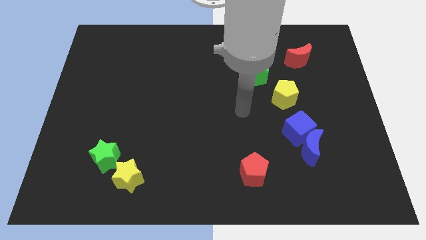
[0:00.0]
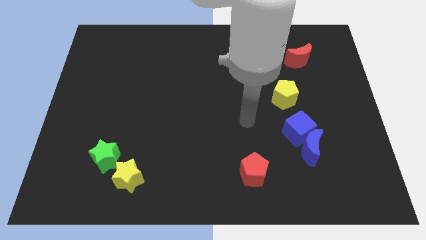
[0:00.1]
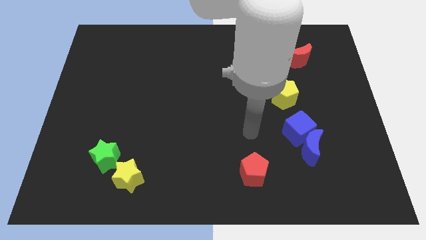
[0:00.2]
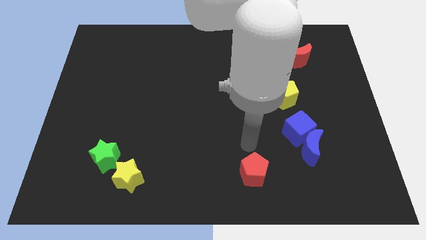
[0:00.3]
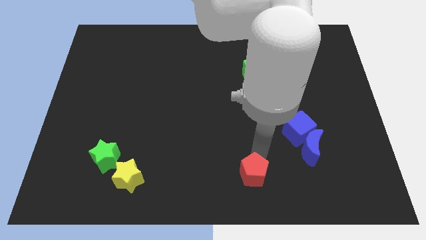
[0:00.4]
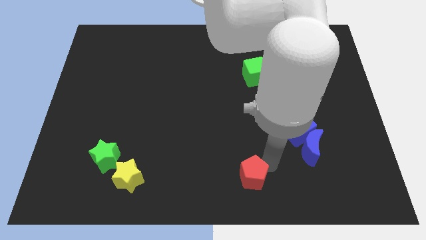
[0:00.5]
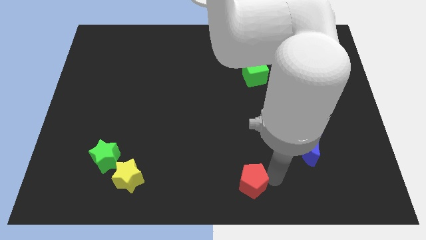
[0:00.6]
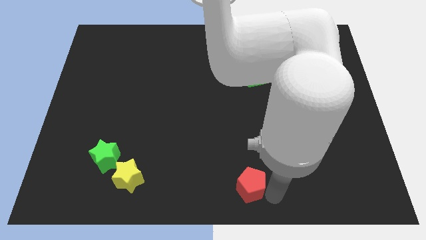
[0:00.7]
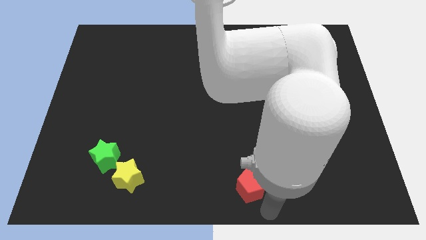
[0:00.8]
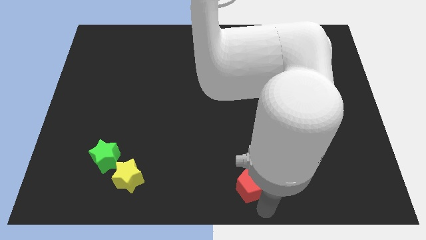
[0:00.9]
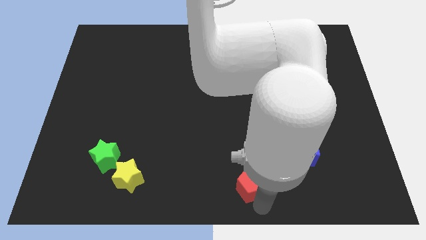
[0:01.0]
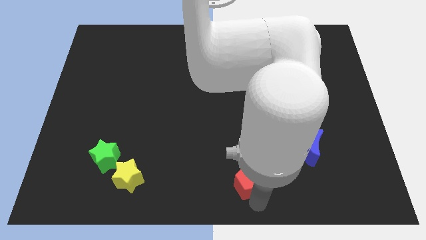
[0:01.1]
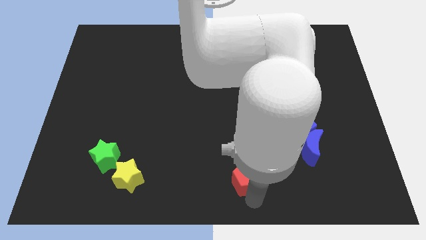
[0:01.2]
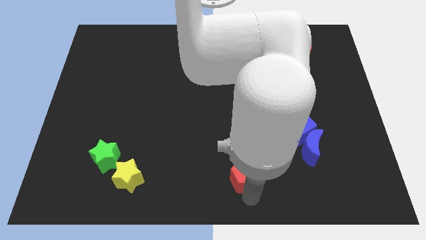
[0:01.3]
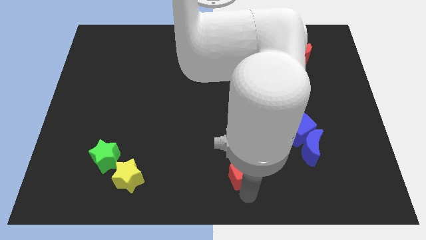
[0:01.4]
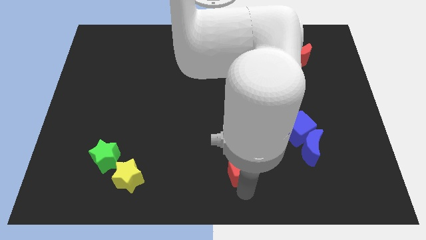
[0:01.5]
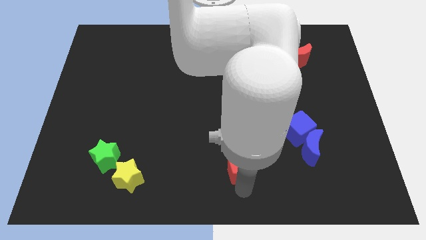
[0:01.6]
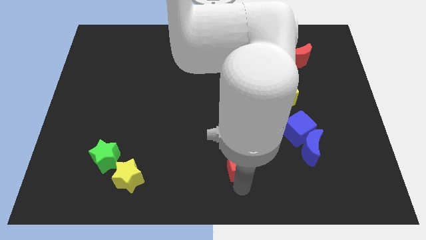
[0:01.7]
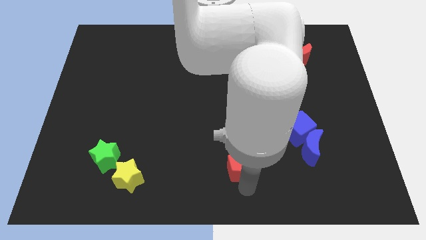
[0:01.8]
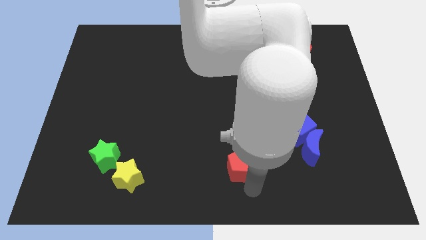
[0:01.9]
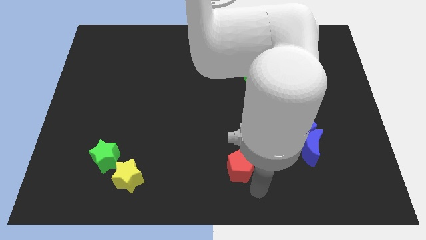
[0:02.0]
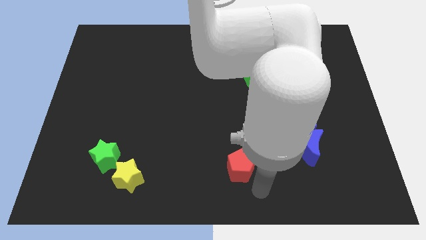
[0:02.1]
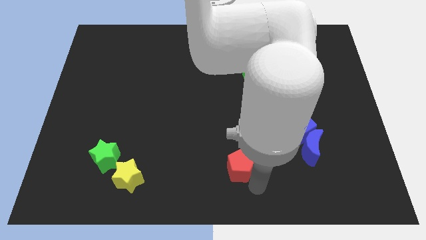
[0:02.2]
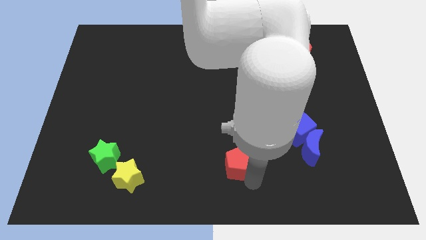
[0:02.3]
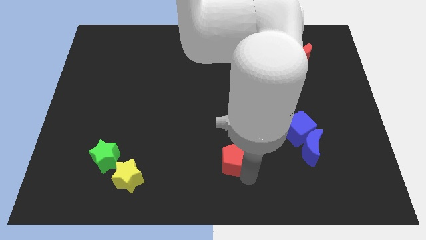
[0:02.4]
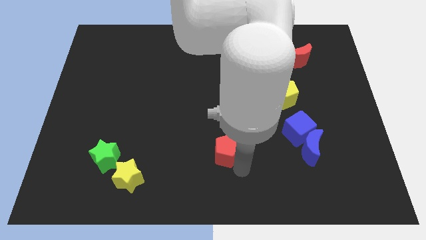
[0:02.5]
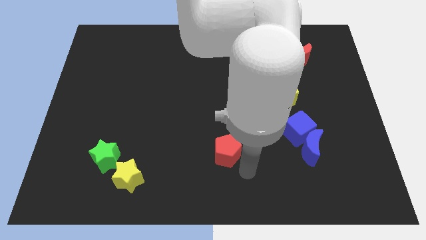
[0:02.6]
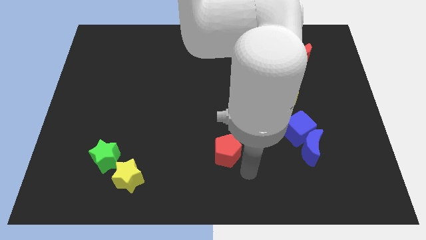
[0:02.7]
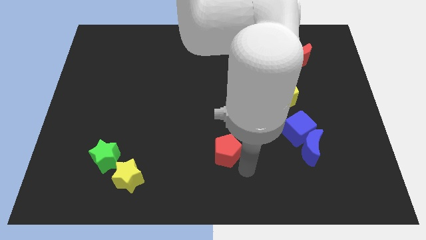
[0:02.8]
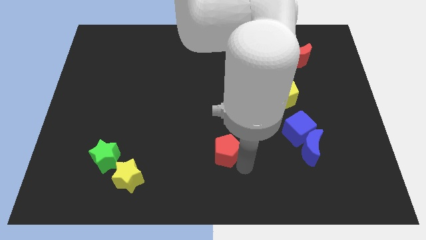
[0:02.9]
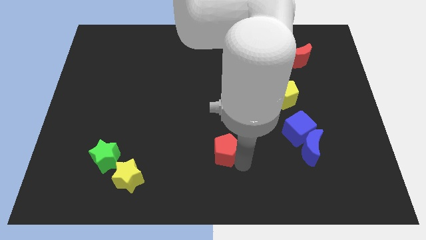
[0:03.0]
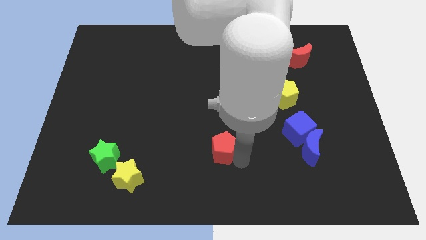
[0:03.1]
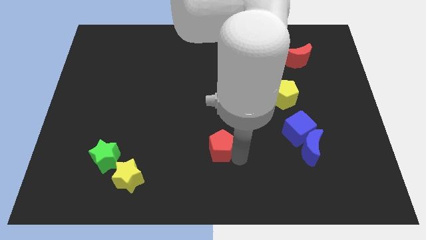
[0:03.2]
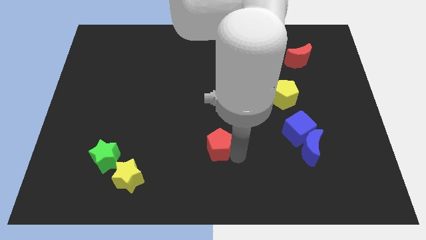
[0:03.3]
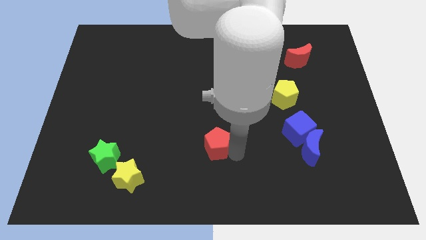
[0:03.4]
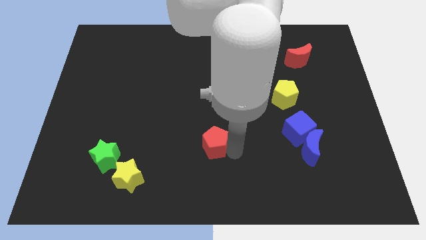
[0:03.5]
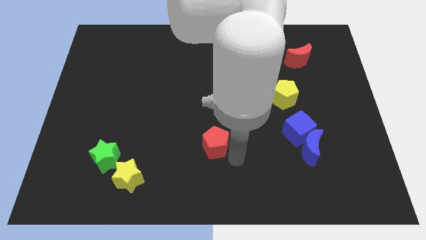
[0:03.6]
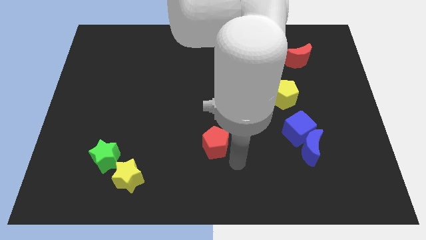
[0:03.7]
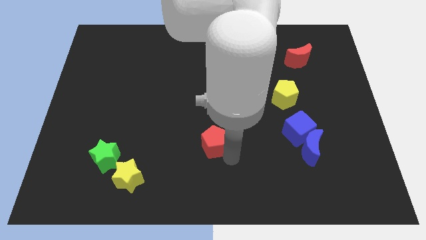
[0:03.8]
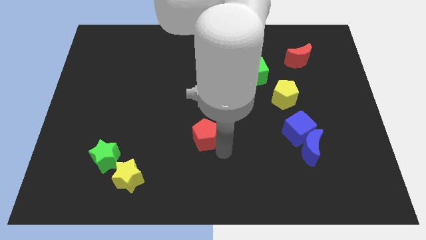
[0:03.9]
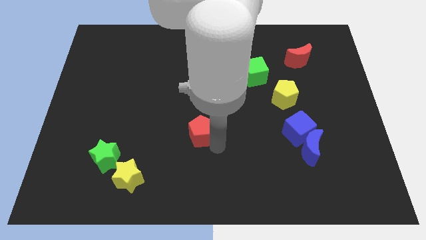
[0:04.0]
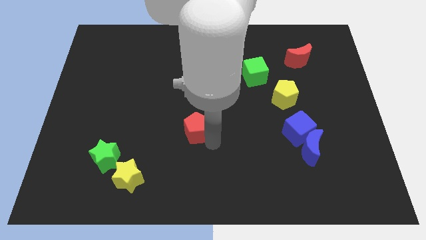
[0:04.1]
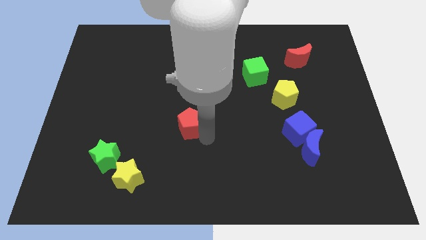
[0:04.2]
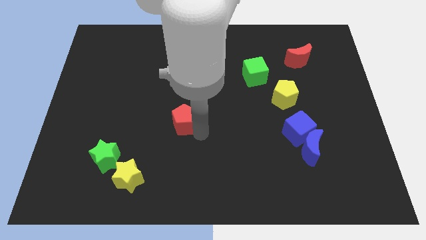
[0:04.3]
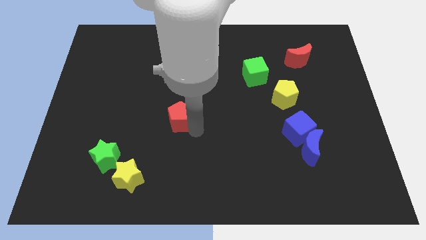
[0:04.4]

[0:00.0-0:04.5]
slide the red pentagon upwards and left diagonally

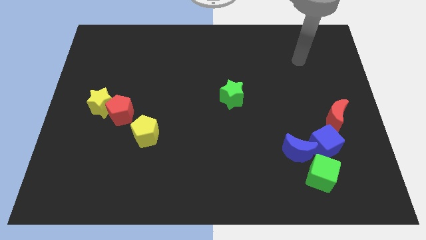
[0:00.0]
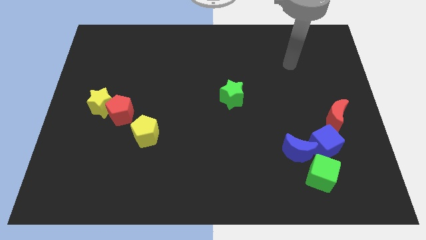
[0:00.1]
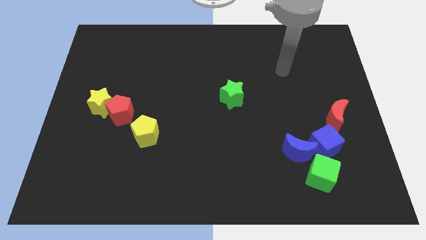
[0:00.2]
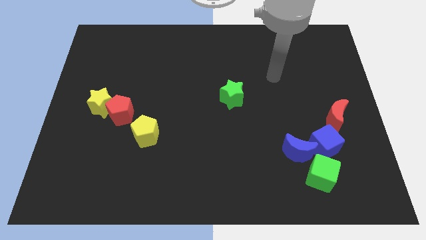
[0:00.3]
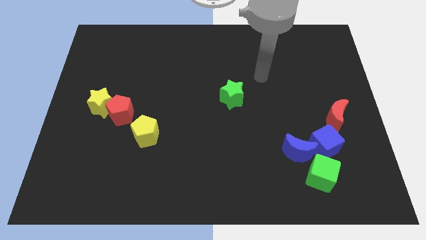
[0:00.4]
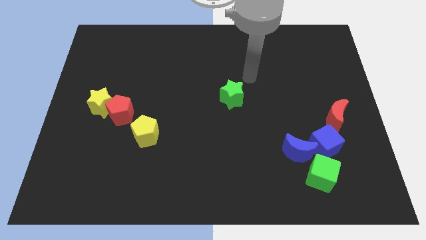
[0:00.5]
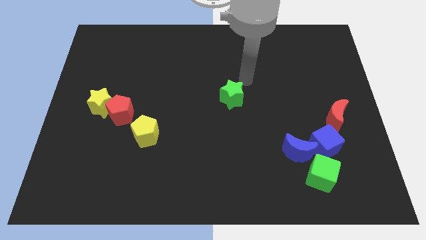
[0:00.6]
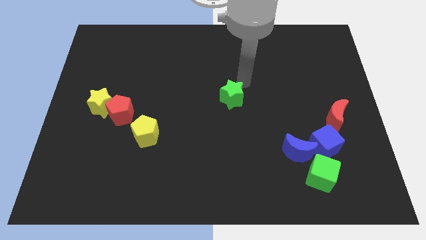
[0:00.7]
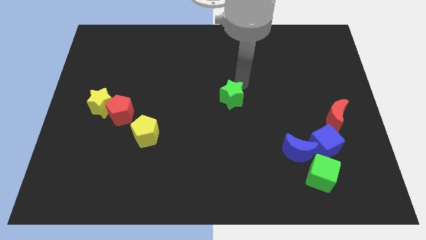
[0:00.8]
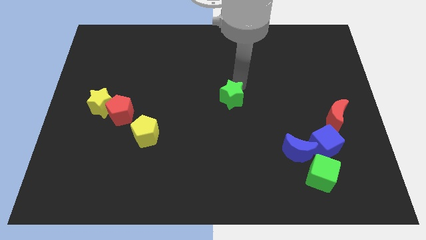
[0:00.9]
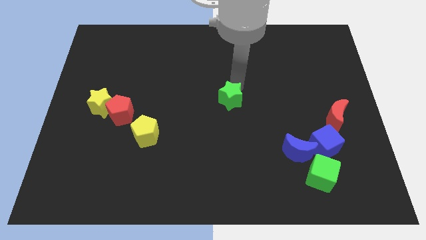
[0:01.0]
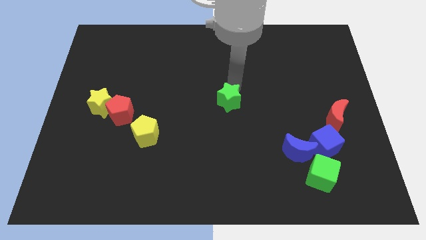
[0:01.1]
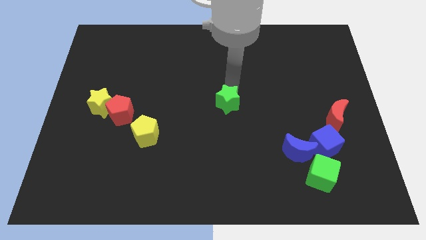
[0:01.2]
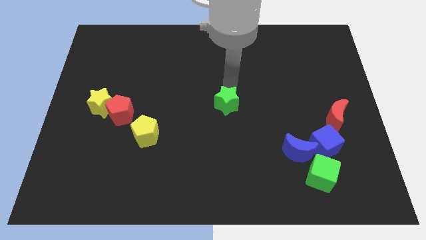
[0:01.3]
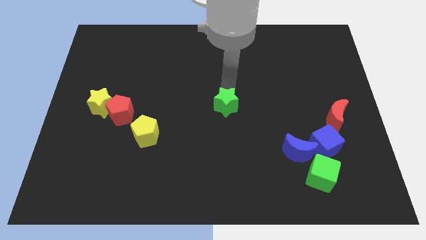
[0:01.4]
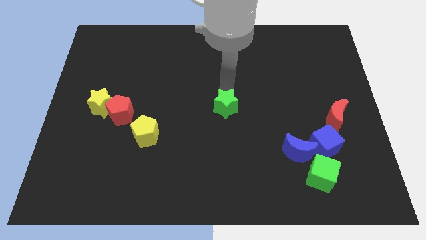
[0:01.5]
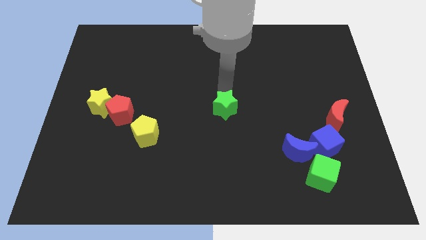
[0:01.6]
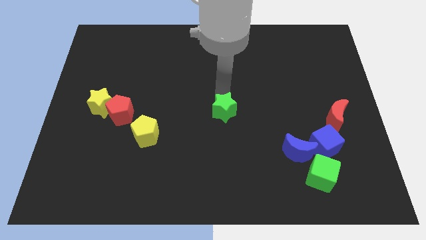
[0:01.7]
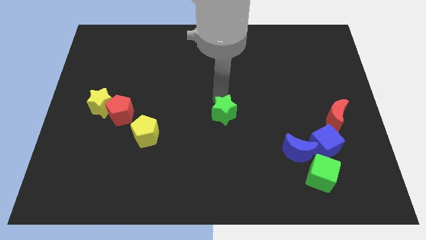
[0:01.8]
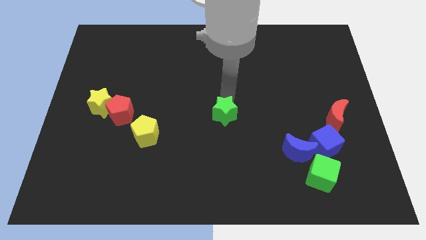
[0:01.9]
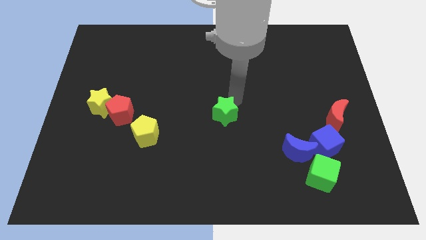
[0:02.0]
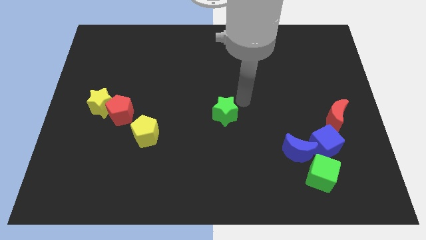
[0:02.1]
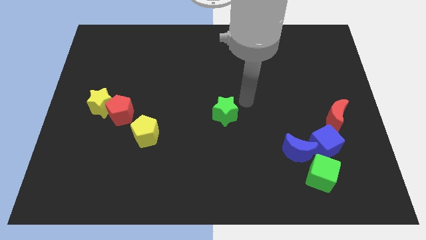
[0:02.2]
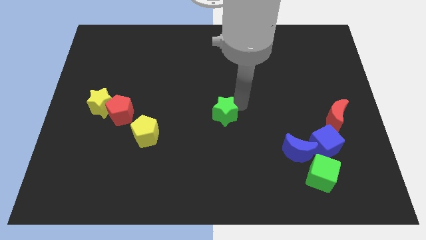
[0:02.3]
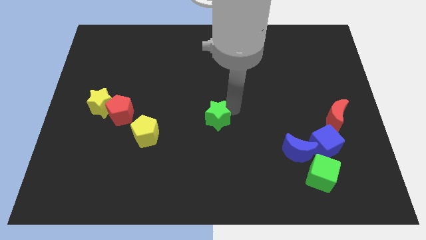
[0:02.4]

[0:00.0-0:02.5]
slightly move the green star down and left diagonally

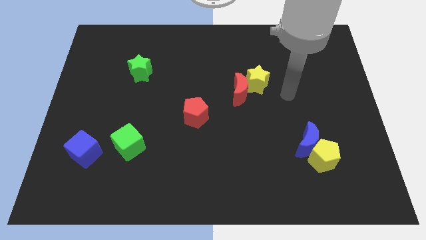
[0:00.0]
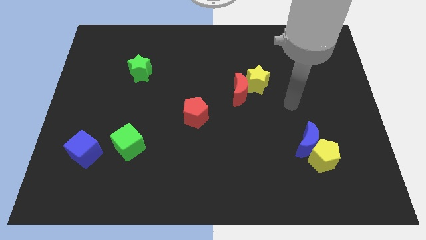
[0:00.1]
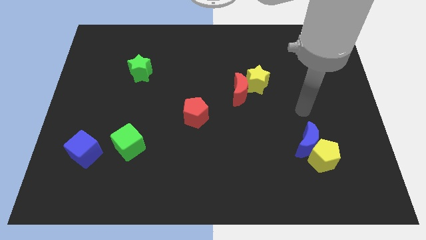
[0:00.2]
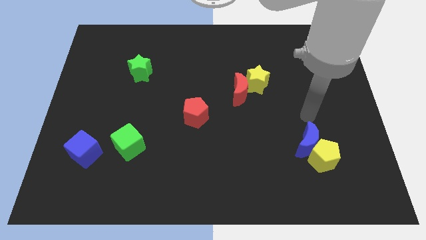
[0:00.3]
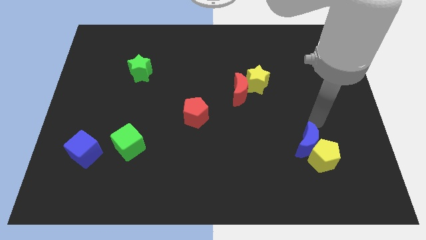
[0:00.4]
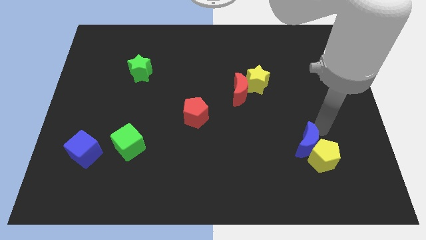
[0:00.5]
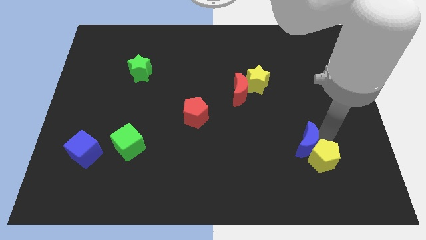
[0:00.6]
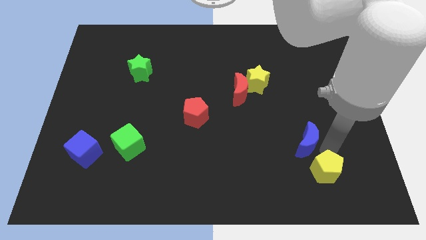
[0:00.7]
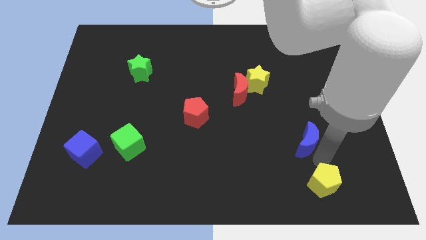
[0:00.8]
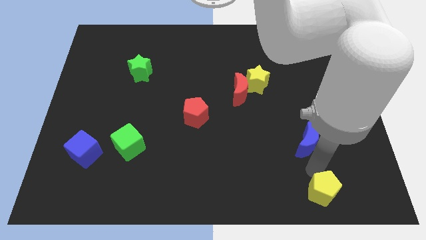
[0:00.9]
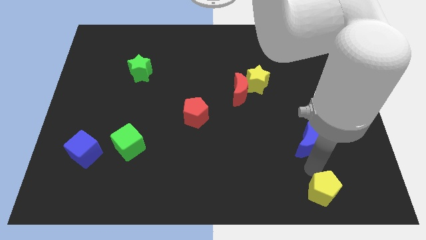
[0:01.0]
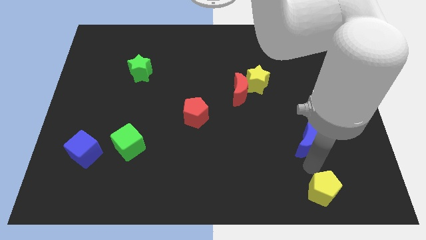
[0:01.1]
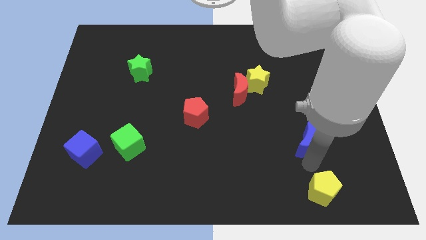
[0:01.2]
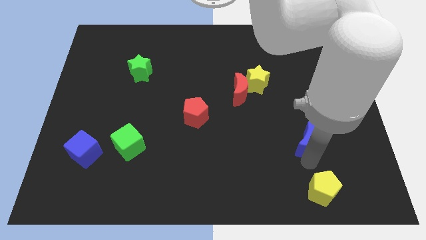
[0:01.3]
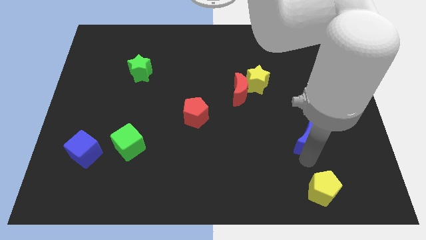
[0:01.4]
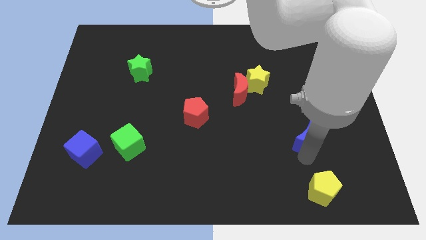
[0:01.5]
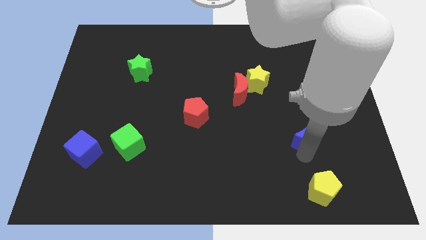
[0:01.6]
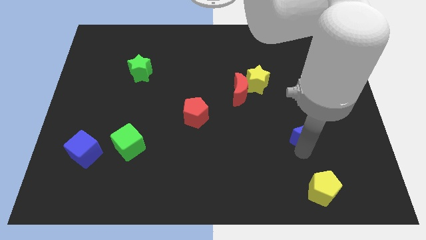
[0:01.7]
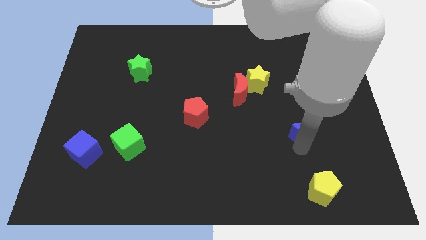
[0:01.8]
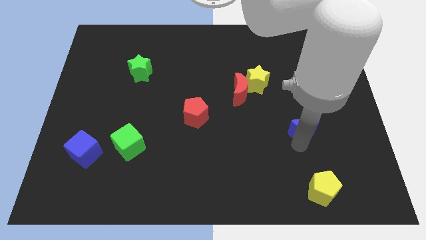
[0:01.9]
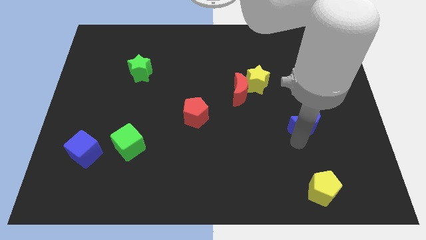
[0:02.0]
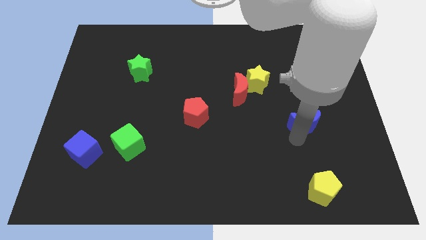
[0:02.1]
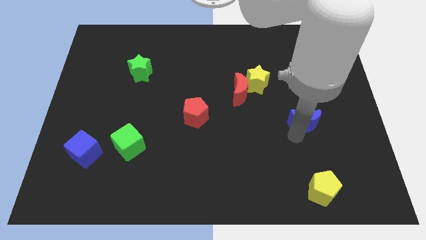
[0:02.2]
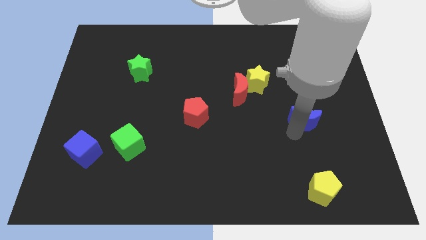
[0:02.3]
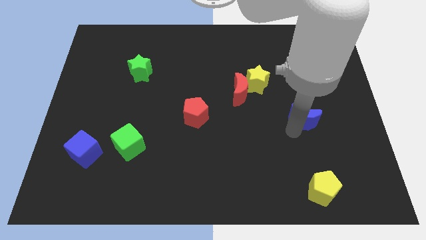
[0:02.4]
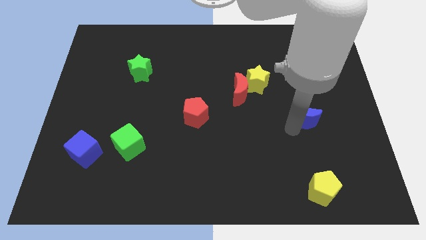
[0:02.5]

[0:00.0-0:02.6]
slightly move the blue moon up
